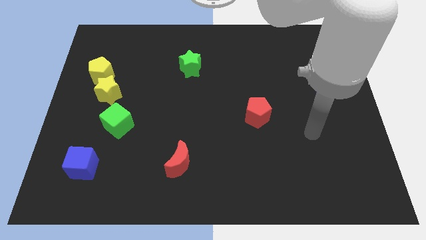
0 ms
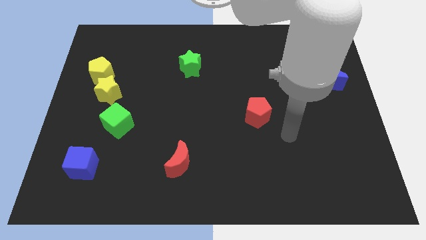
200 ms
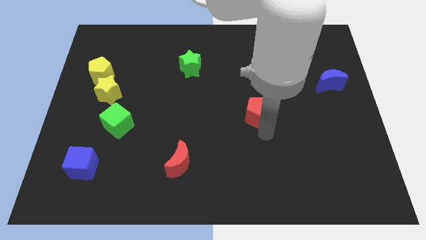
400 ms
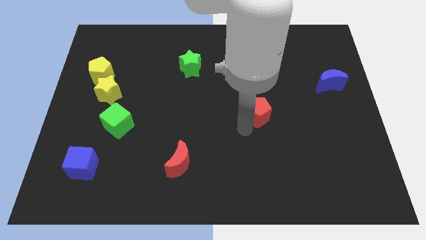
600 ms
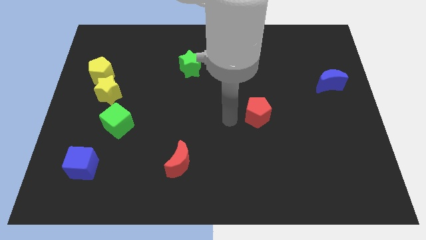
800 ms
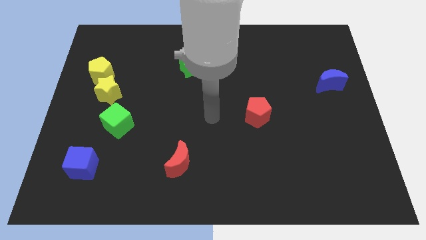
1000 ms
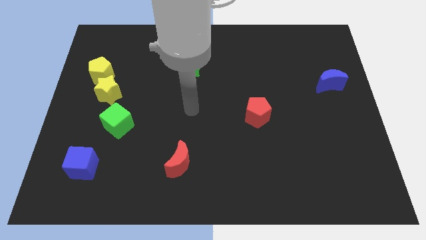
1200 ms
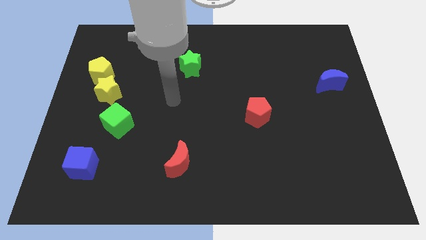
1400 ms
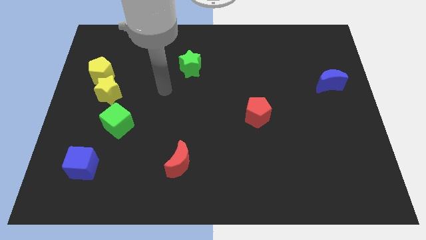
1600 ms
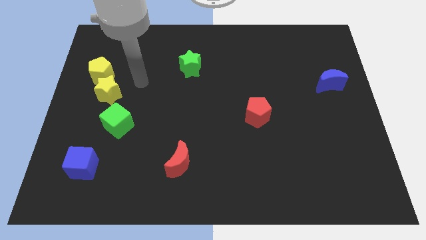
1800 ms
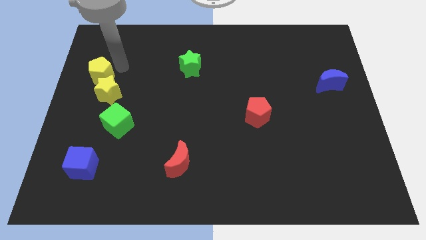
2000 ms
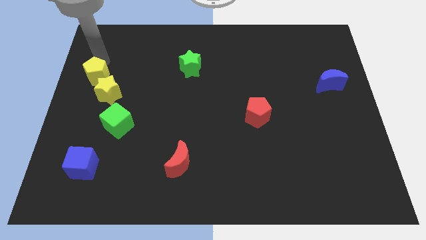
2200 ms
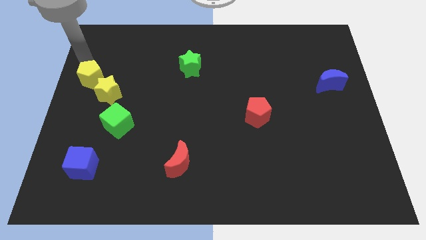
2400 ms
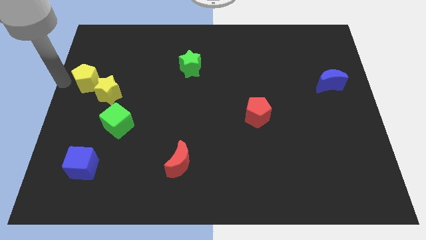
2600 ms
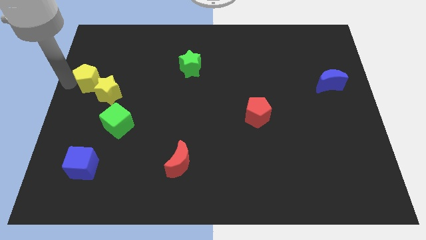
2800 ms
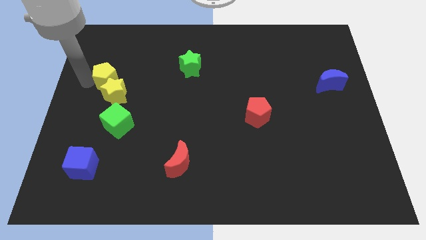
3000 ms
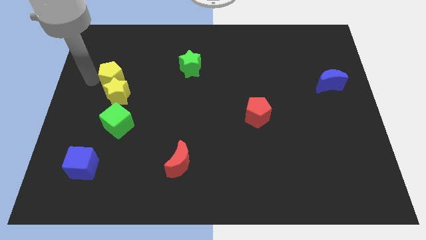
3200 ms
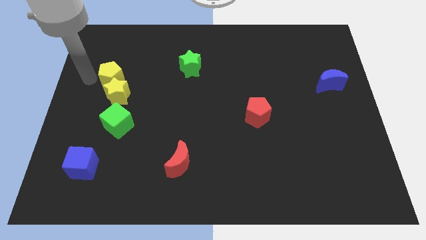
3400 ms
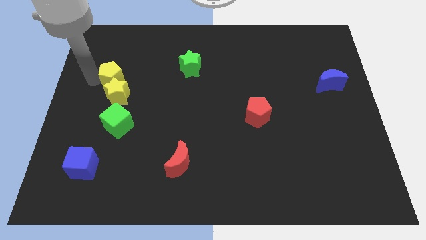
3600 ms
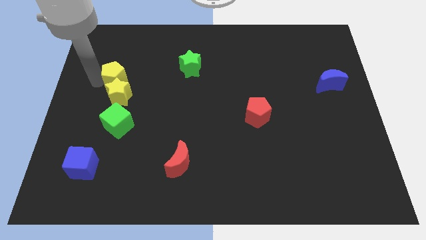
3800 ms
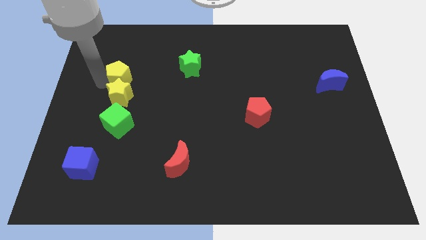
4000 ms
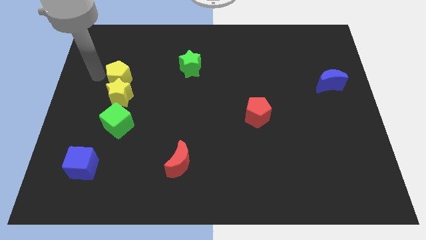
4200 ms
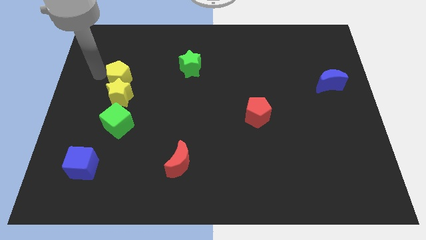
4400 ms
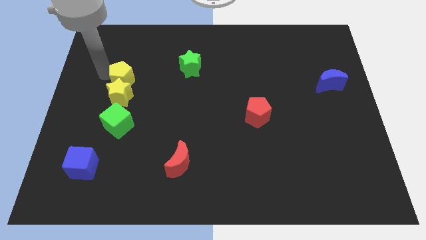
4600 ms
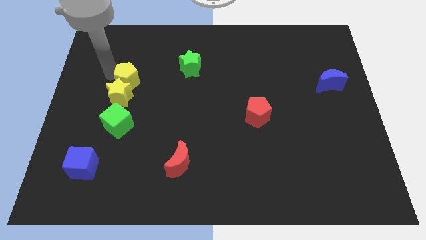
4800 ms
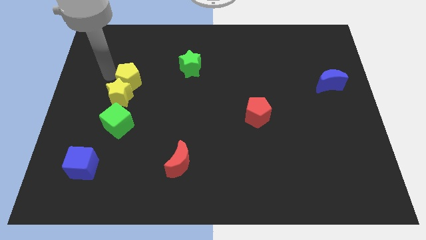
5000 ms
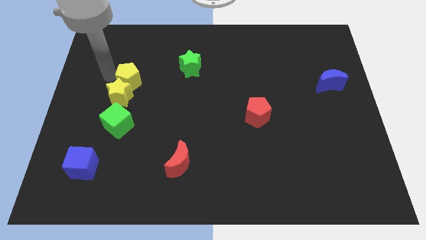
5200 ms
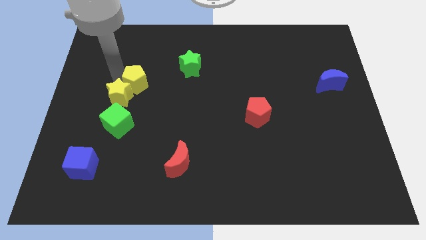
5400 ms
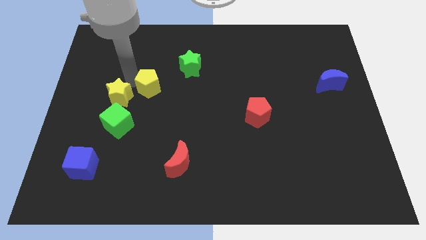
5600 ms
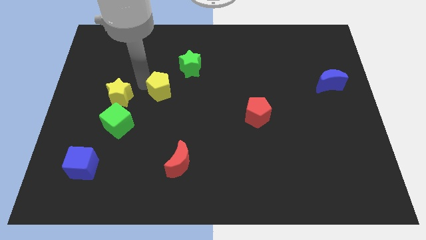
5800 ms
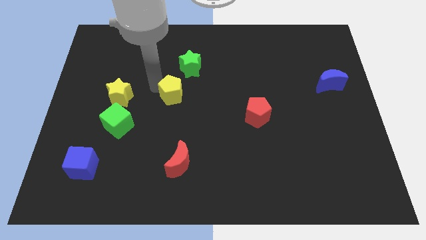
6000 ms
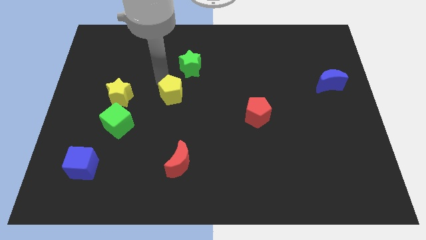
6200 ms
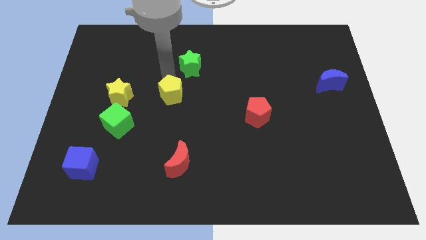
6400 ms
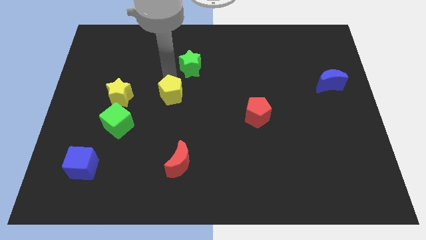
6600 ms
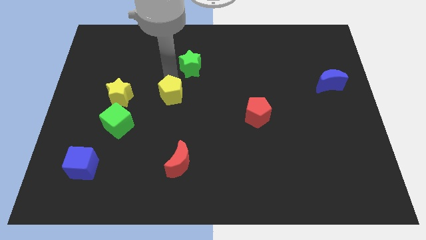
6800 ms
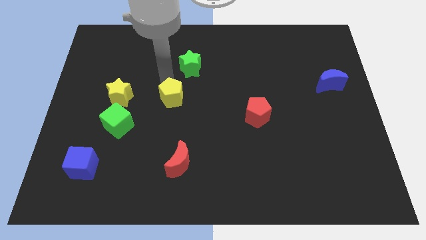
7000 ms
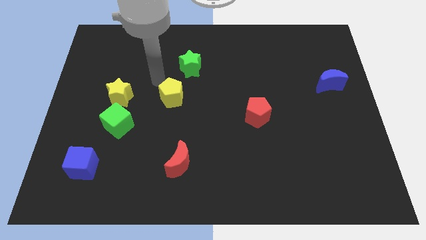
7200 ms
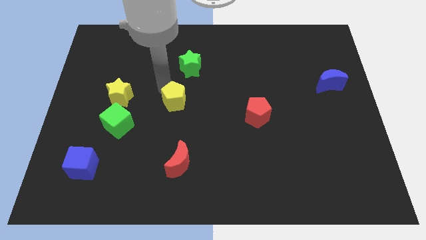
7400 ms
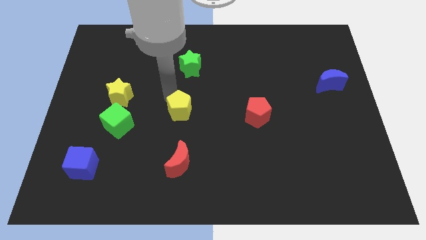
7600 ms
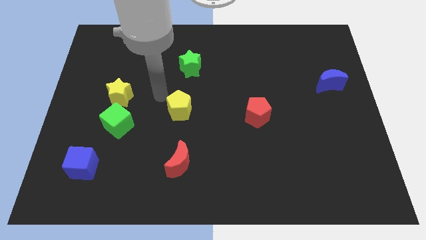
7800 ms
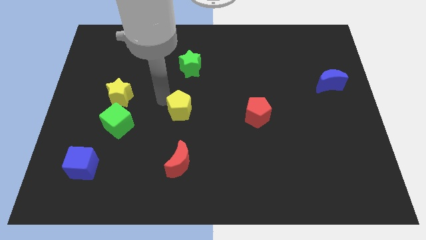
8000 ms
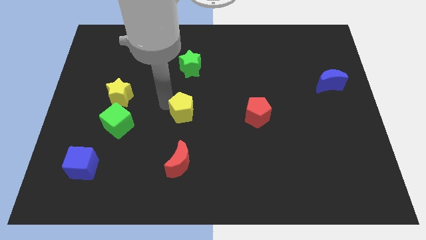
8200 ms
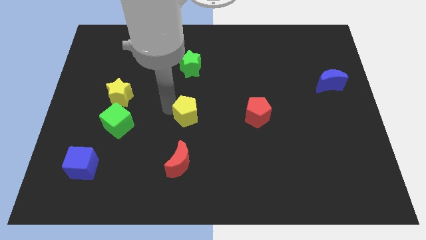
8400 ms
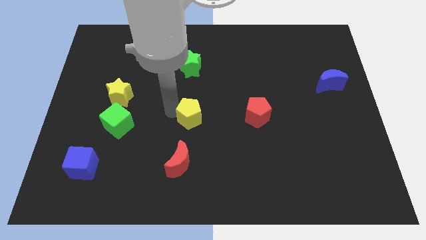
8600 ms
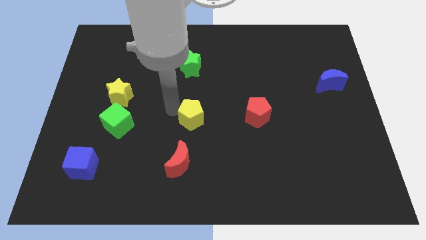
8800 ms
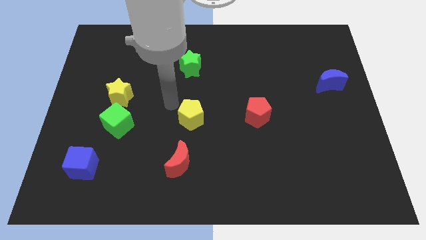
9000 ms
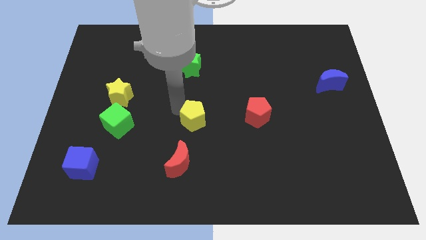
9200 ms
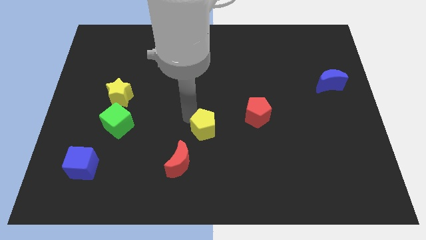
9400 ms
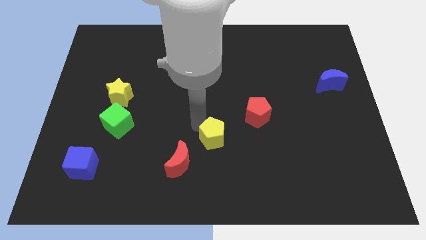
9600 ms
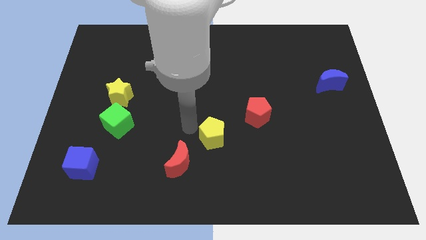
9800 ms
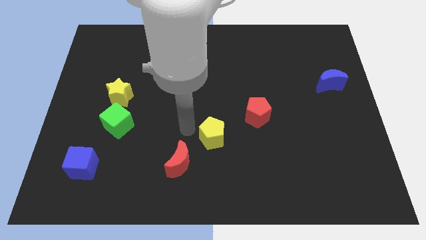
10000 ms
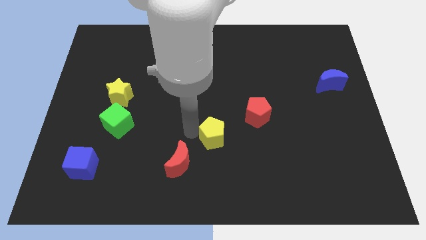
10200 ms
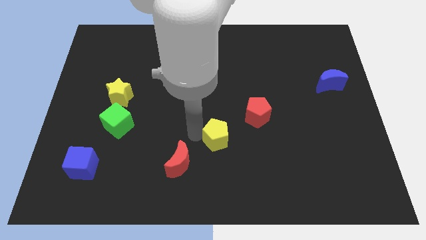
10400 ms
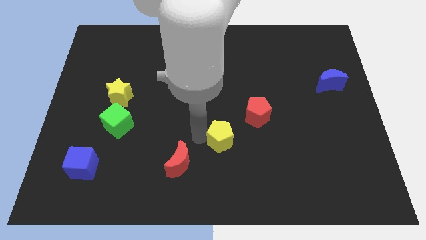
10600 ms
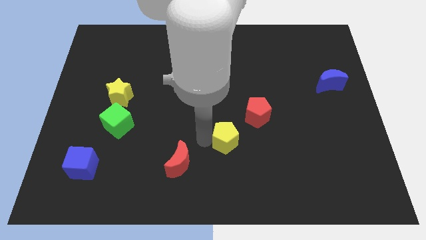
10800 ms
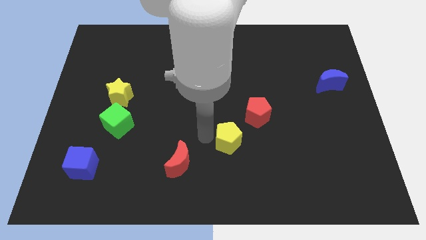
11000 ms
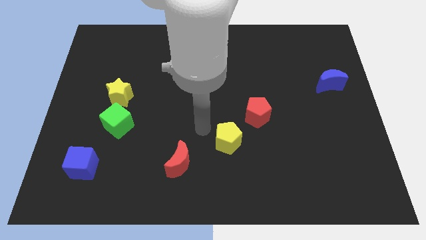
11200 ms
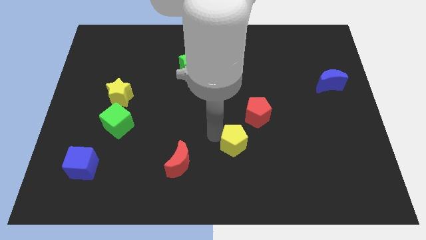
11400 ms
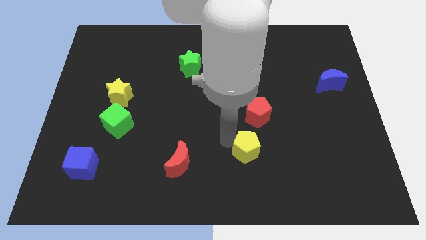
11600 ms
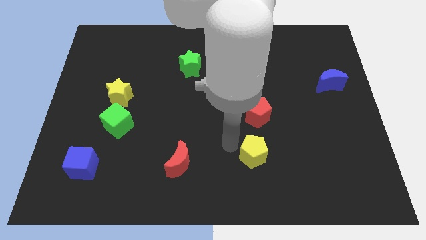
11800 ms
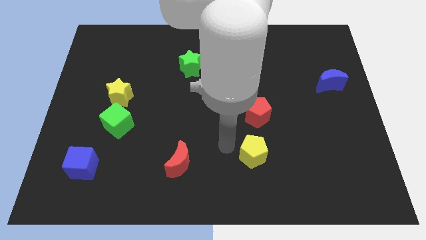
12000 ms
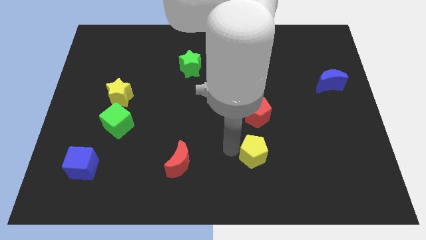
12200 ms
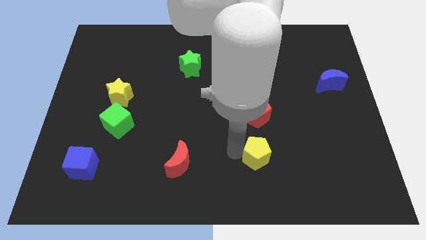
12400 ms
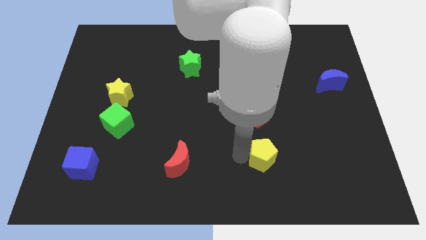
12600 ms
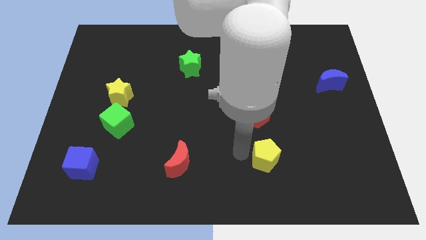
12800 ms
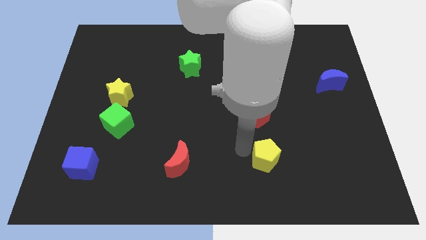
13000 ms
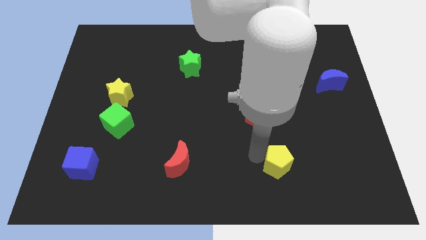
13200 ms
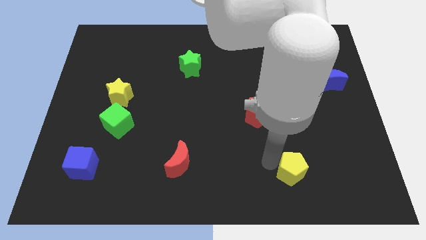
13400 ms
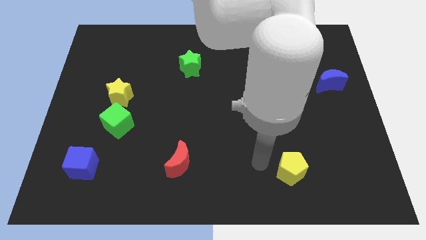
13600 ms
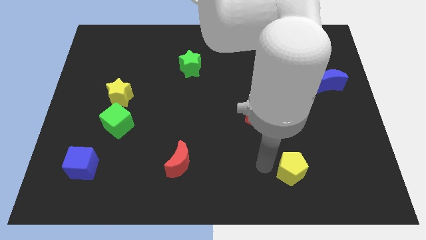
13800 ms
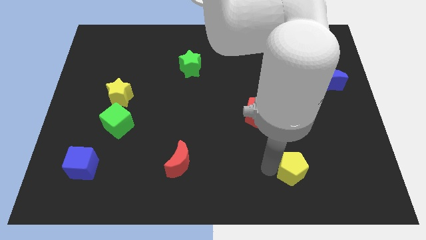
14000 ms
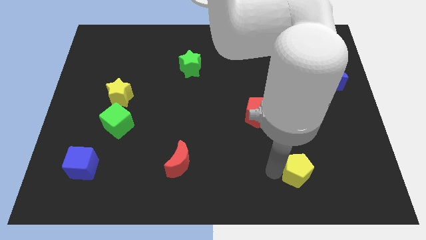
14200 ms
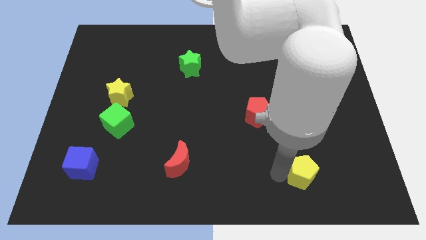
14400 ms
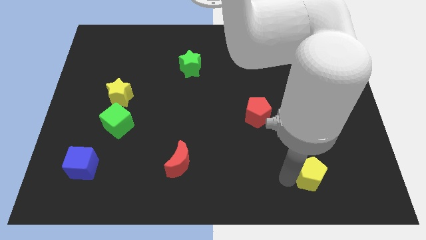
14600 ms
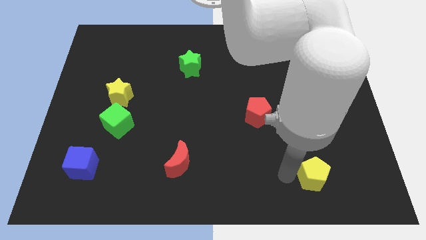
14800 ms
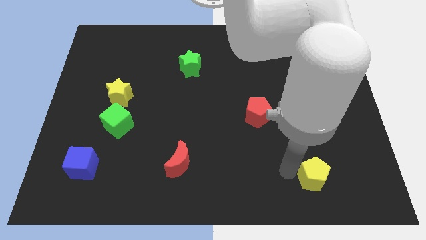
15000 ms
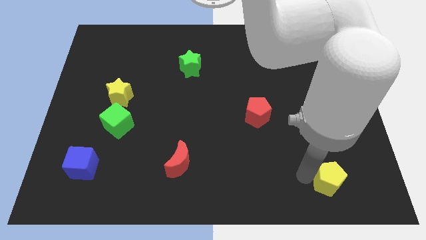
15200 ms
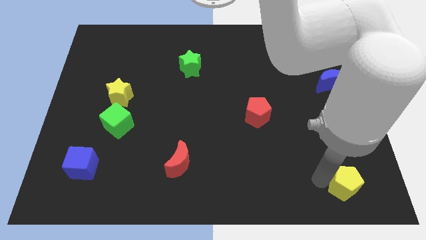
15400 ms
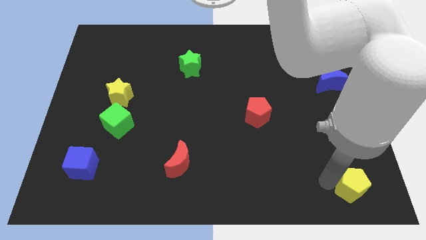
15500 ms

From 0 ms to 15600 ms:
put the yellow pentagon to the lower right corner
